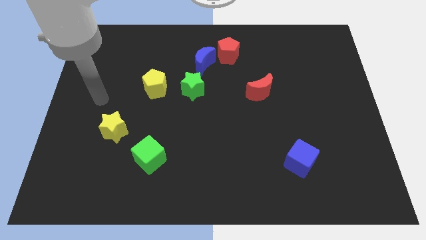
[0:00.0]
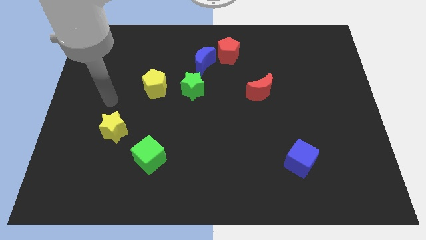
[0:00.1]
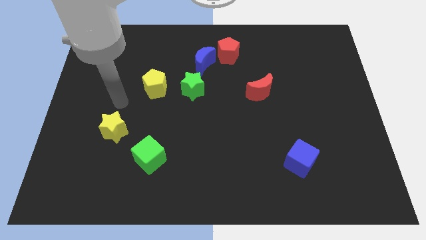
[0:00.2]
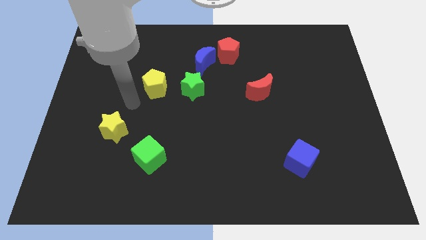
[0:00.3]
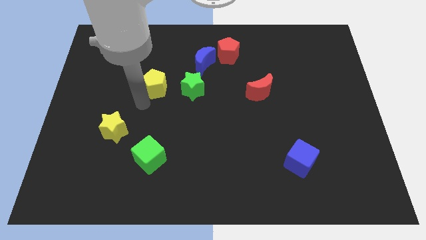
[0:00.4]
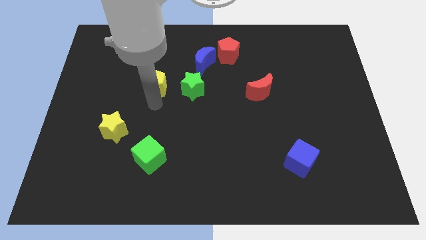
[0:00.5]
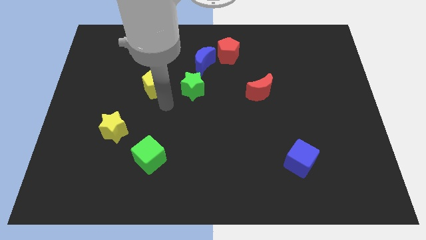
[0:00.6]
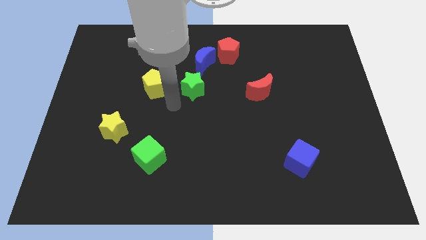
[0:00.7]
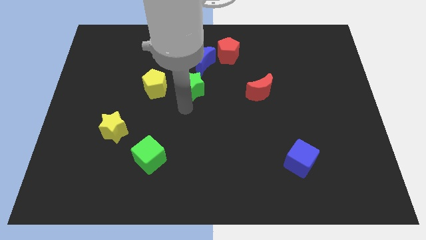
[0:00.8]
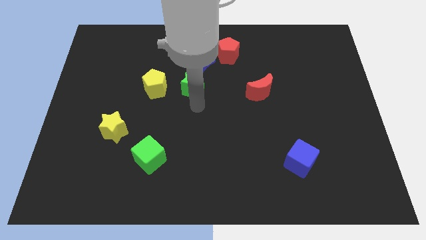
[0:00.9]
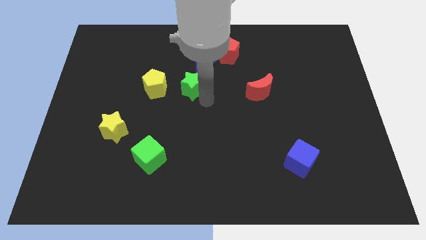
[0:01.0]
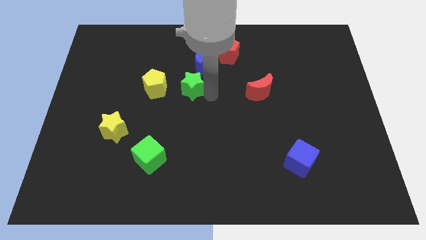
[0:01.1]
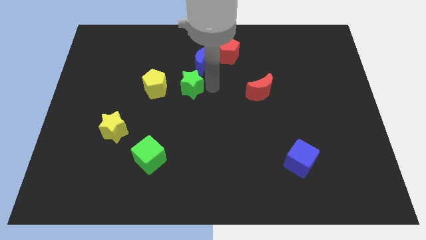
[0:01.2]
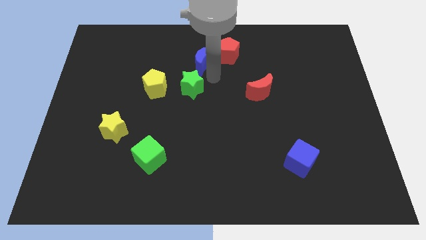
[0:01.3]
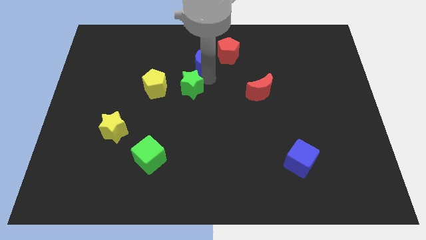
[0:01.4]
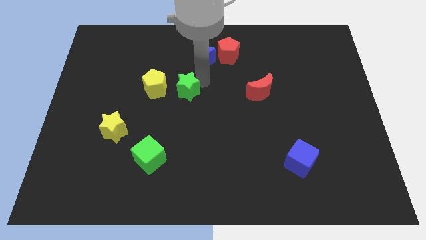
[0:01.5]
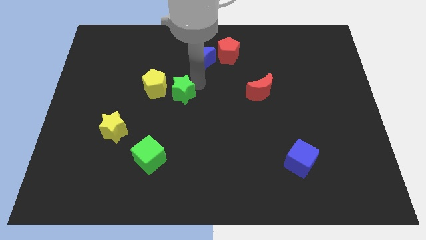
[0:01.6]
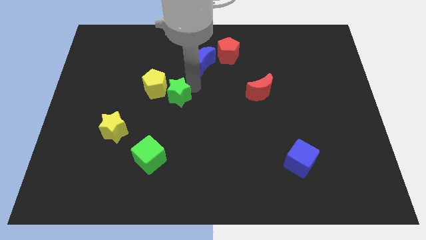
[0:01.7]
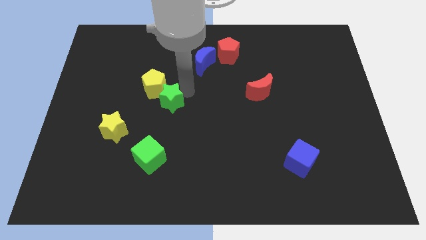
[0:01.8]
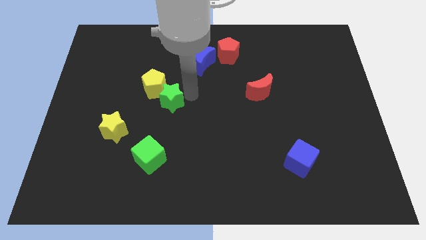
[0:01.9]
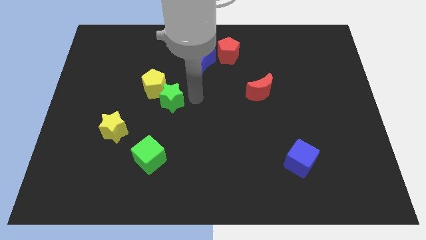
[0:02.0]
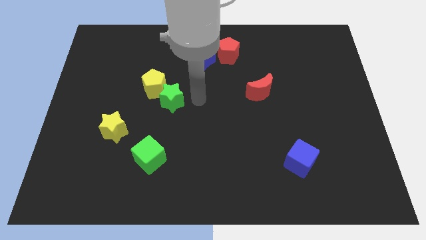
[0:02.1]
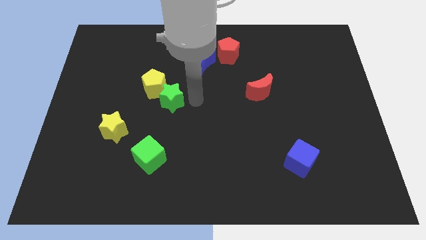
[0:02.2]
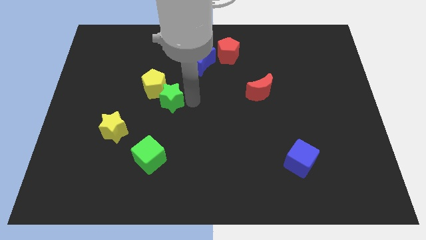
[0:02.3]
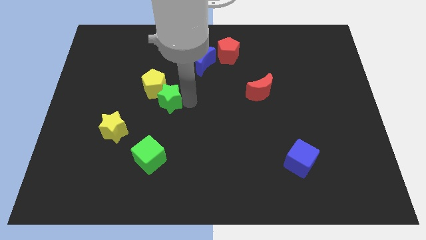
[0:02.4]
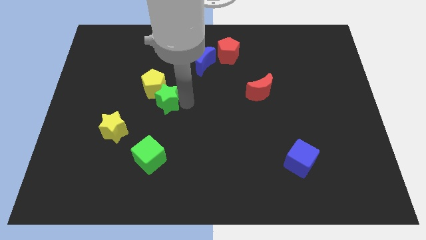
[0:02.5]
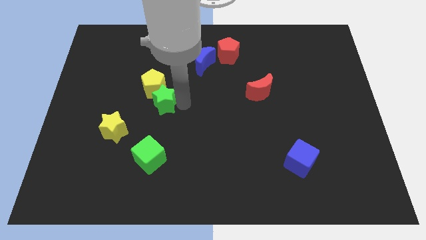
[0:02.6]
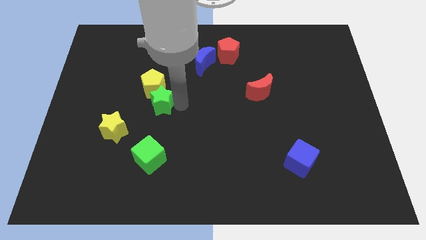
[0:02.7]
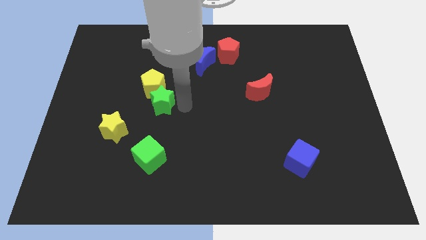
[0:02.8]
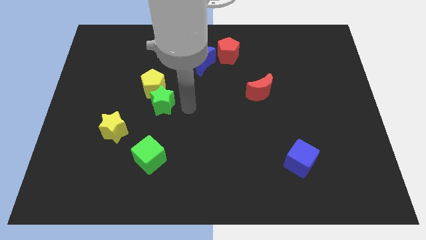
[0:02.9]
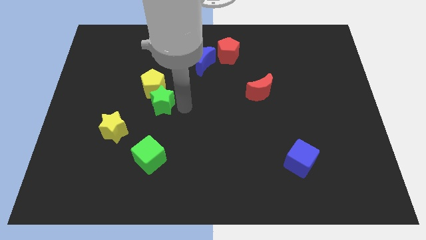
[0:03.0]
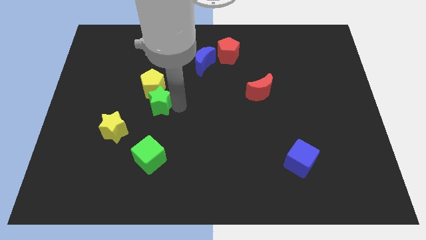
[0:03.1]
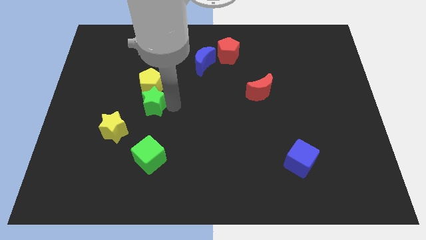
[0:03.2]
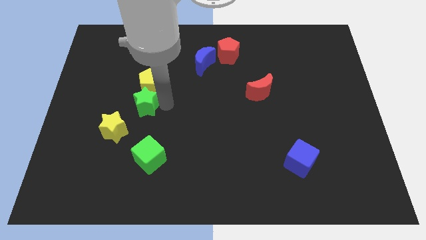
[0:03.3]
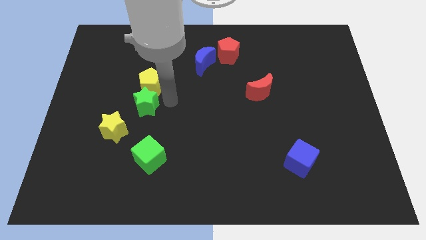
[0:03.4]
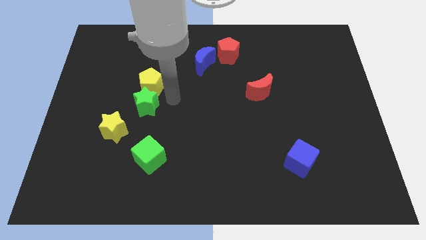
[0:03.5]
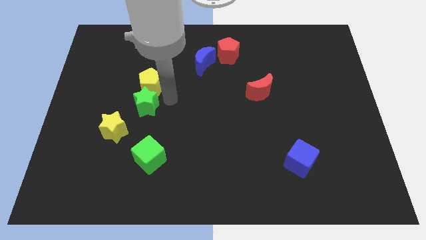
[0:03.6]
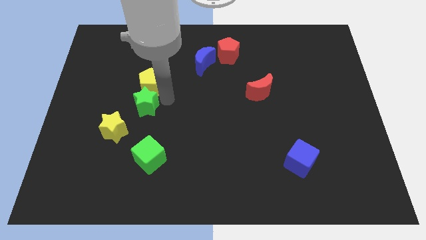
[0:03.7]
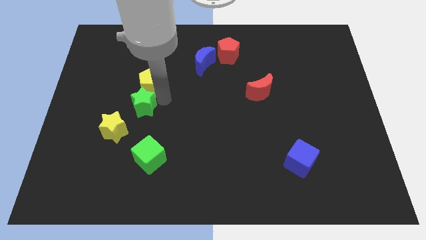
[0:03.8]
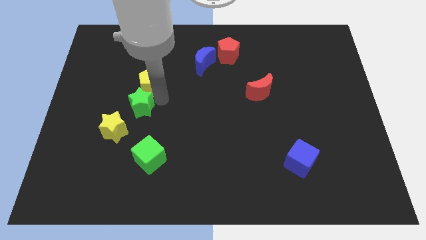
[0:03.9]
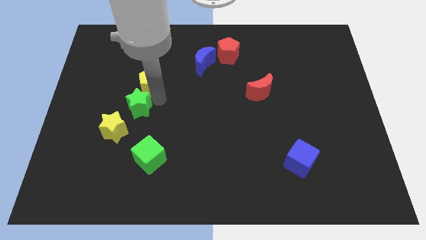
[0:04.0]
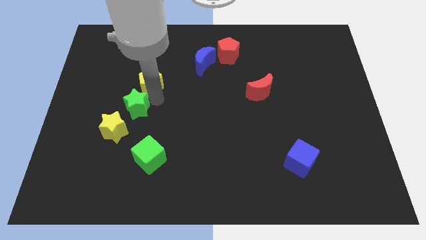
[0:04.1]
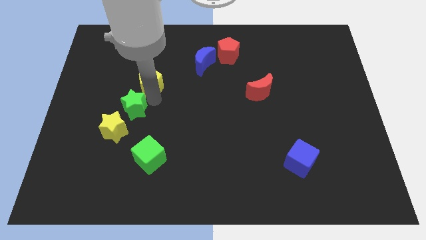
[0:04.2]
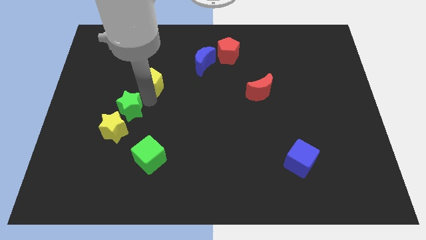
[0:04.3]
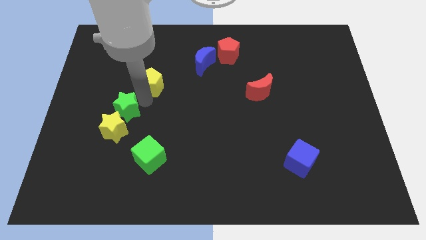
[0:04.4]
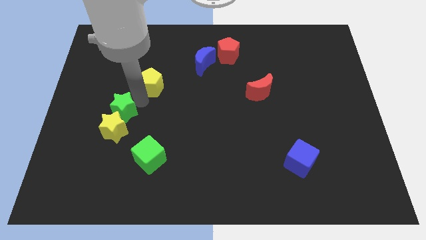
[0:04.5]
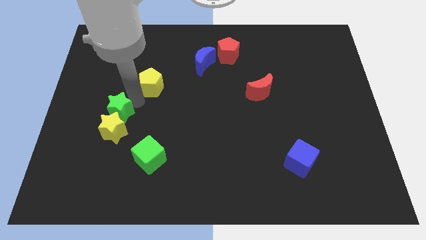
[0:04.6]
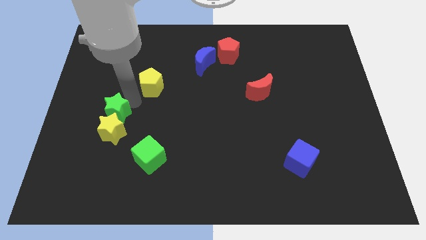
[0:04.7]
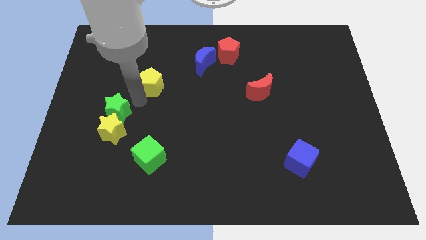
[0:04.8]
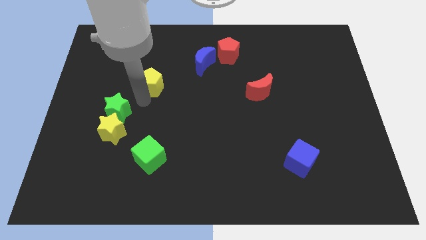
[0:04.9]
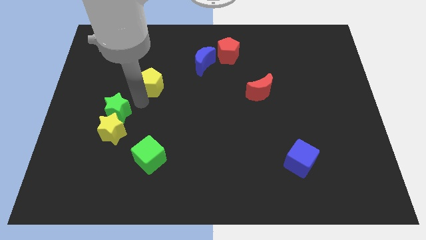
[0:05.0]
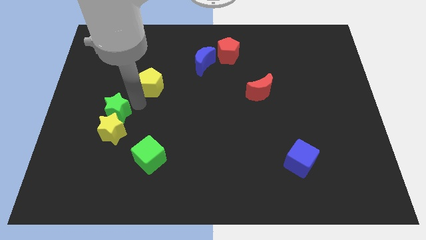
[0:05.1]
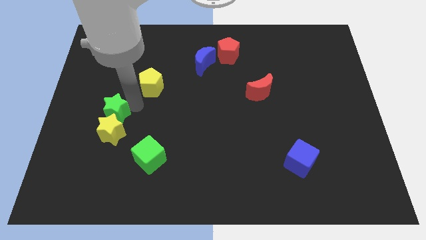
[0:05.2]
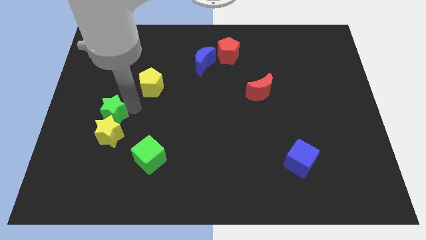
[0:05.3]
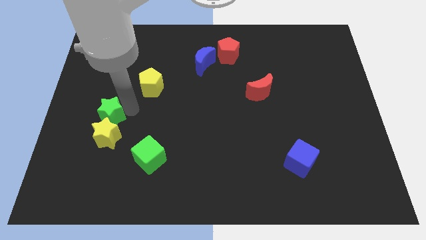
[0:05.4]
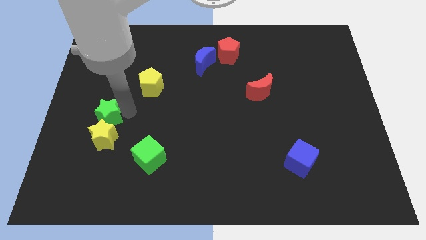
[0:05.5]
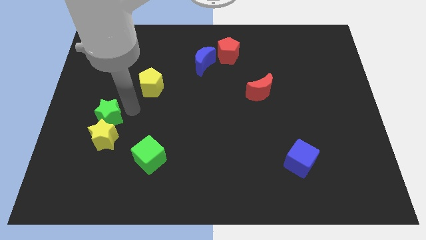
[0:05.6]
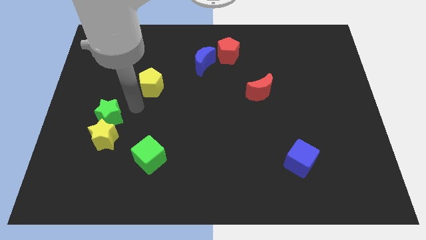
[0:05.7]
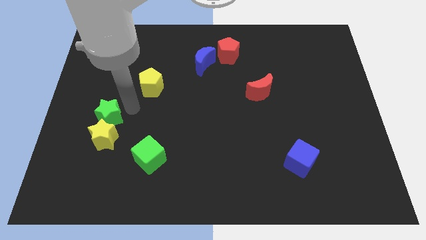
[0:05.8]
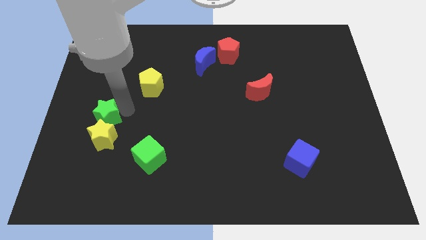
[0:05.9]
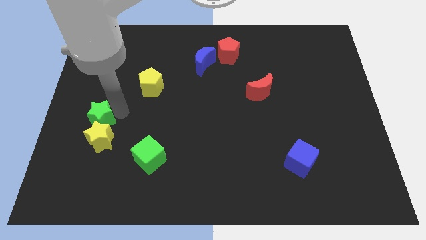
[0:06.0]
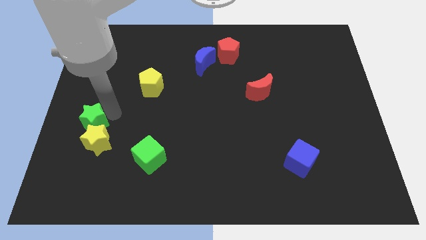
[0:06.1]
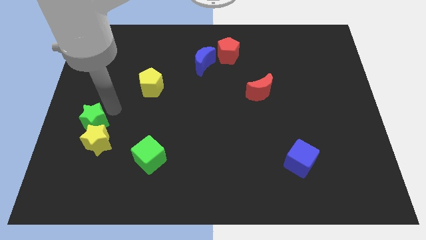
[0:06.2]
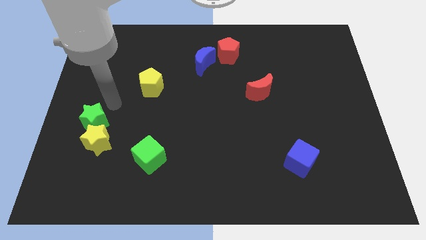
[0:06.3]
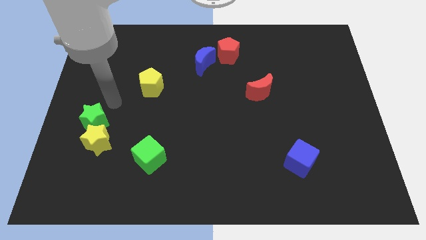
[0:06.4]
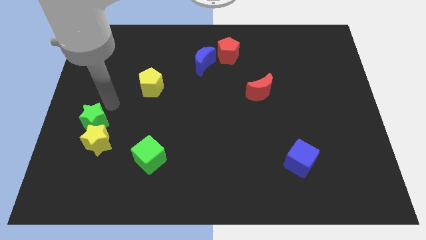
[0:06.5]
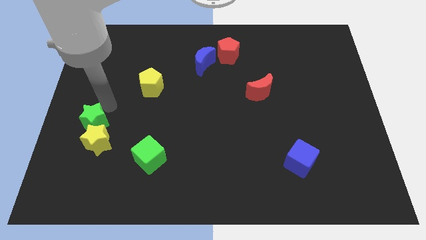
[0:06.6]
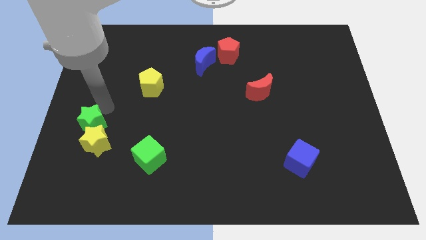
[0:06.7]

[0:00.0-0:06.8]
slide the green star downwards and to the left

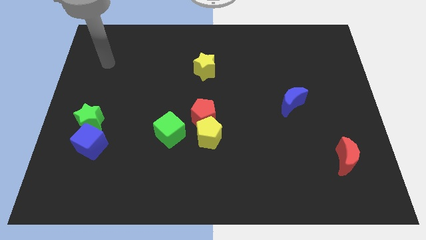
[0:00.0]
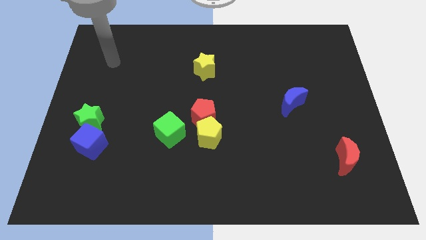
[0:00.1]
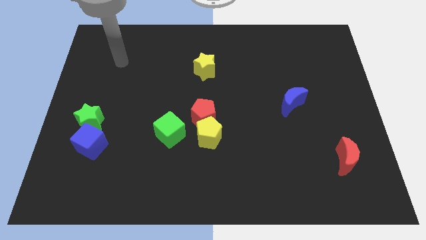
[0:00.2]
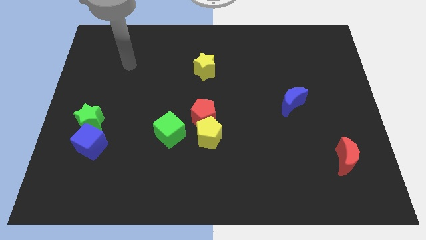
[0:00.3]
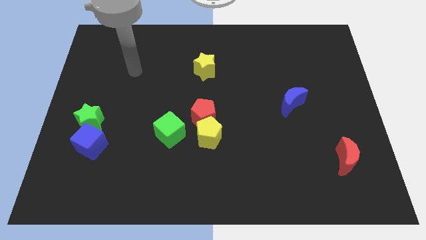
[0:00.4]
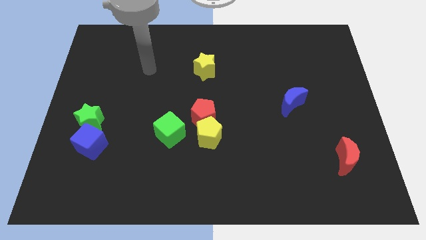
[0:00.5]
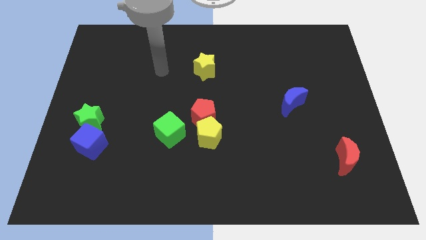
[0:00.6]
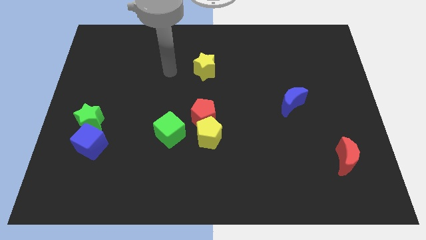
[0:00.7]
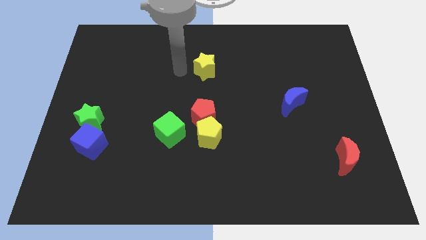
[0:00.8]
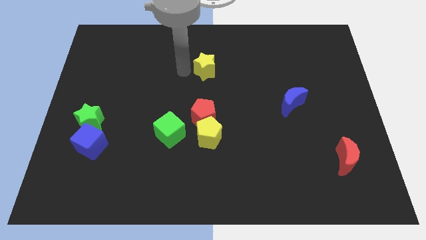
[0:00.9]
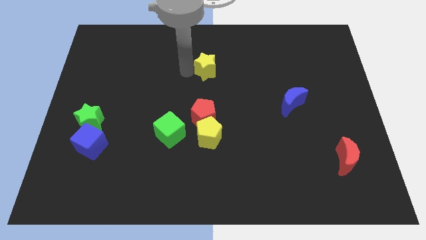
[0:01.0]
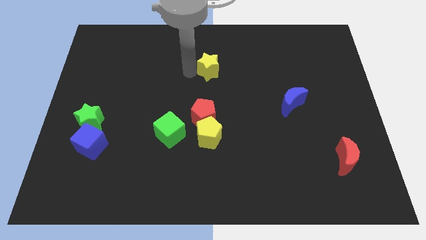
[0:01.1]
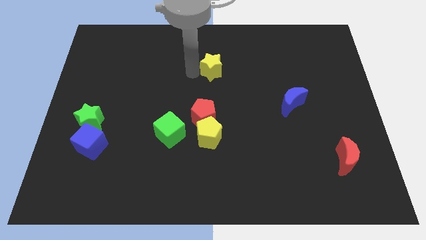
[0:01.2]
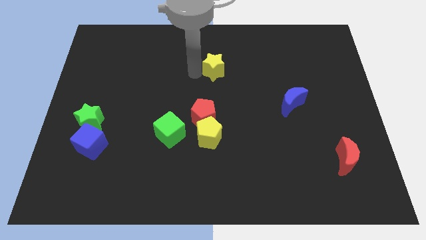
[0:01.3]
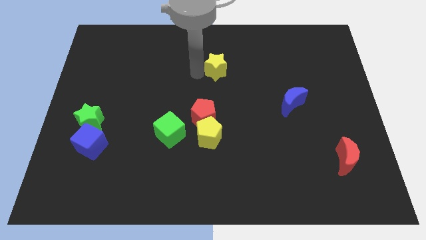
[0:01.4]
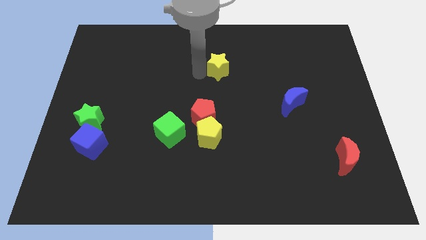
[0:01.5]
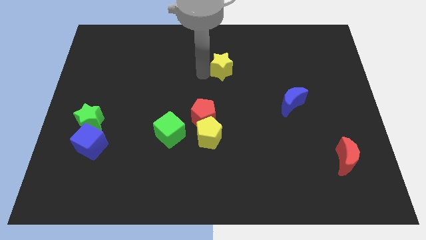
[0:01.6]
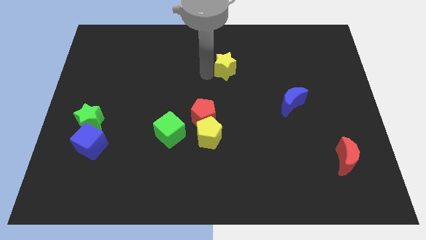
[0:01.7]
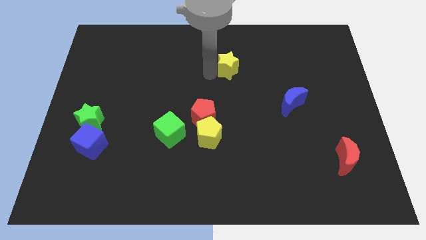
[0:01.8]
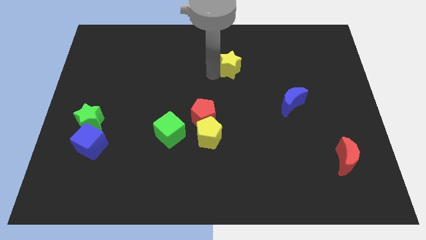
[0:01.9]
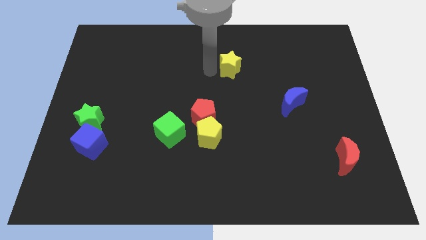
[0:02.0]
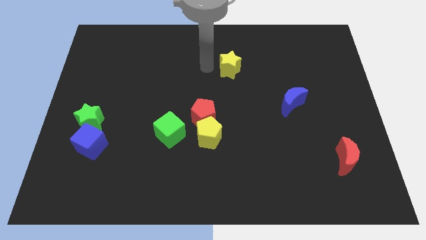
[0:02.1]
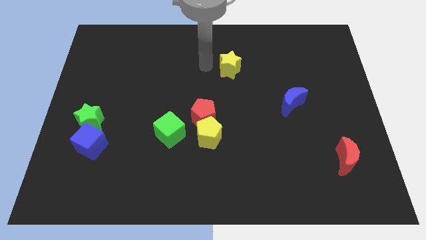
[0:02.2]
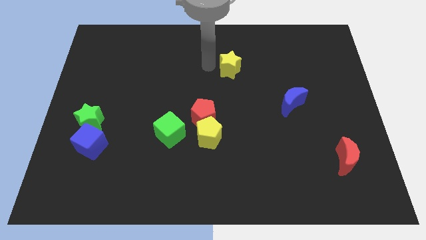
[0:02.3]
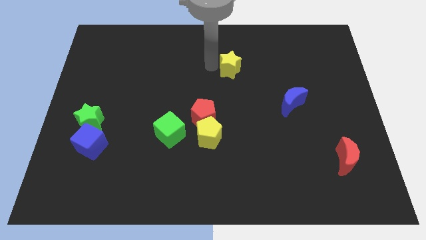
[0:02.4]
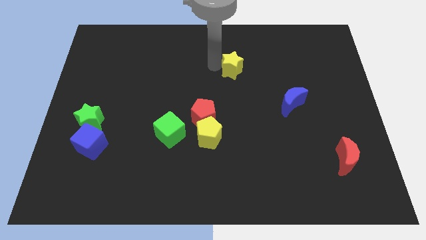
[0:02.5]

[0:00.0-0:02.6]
push the yellow star a bit right
